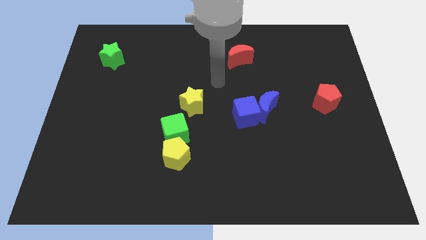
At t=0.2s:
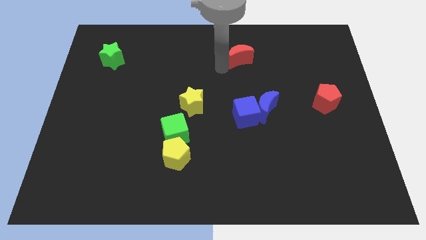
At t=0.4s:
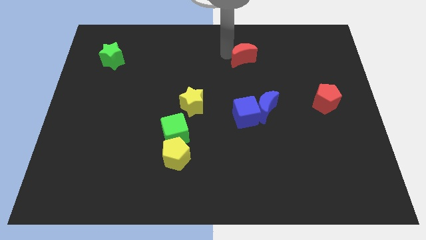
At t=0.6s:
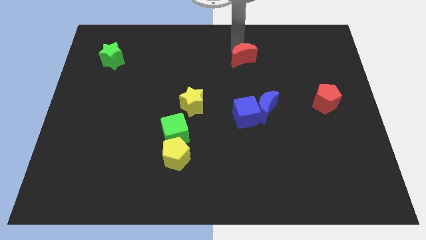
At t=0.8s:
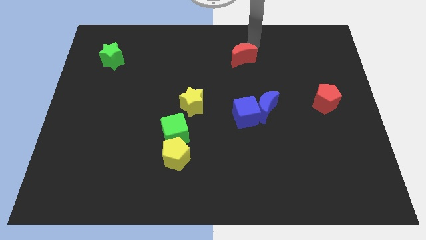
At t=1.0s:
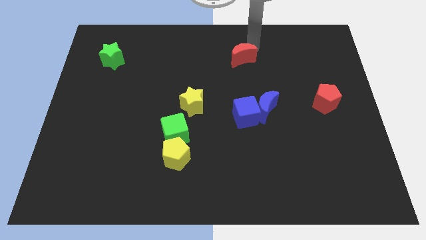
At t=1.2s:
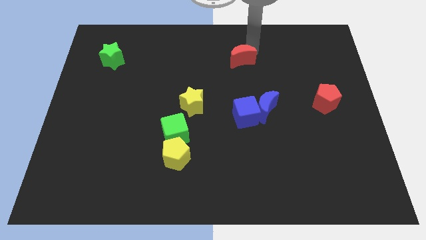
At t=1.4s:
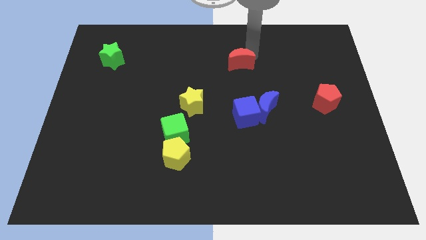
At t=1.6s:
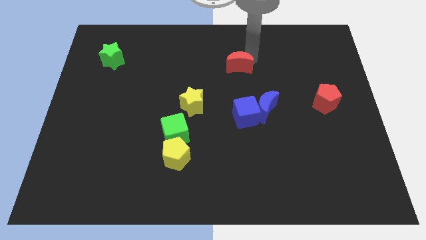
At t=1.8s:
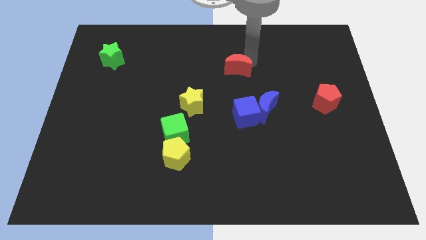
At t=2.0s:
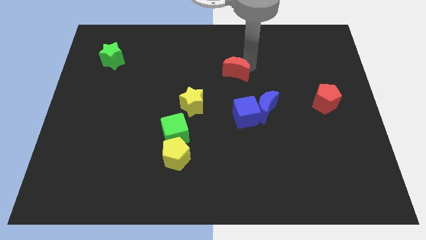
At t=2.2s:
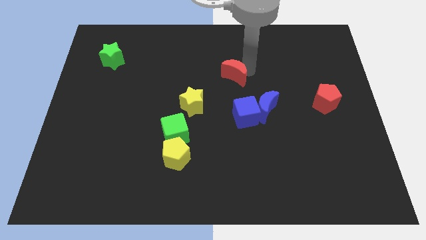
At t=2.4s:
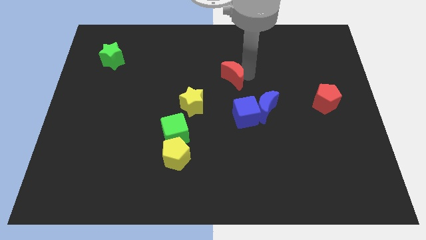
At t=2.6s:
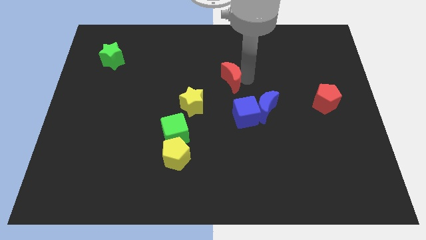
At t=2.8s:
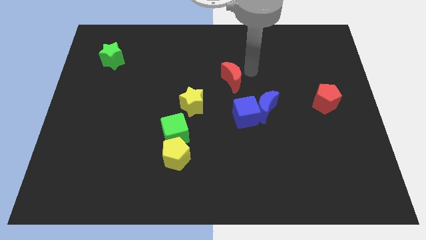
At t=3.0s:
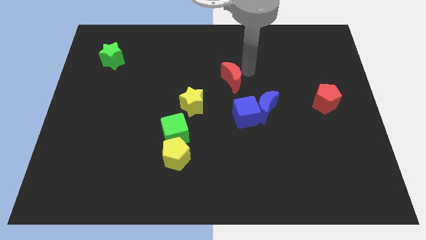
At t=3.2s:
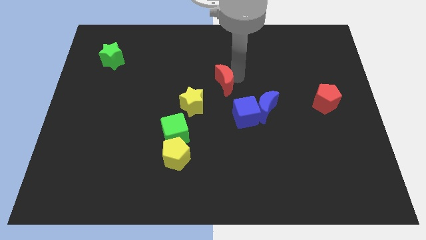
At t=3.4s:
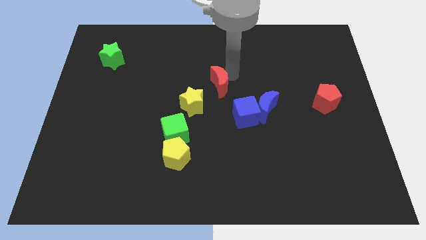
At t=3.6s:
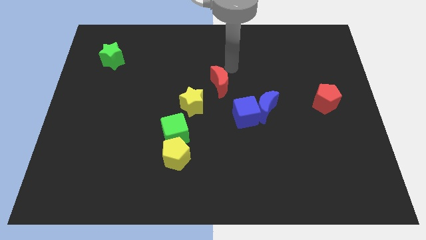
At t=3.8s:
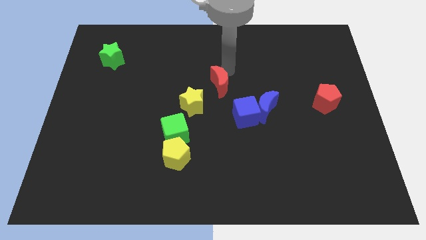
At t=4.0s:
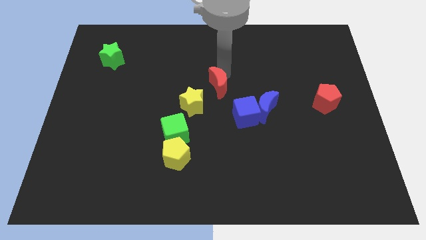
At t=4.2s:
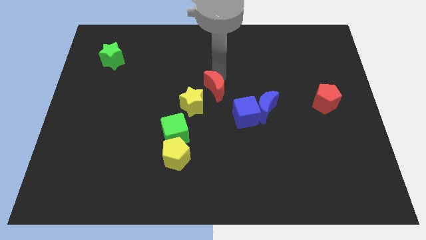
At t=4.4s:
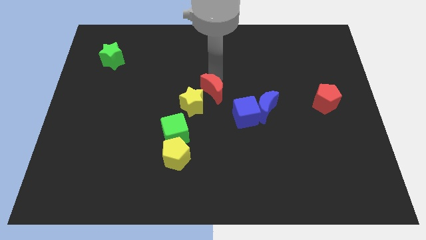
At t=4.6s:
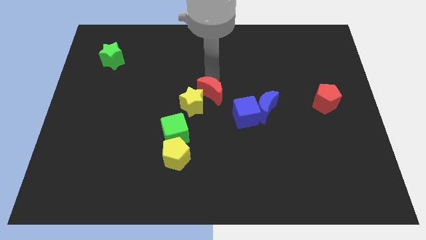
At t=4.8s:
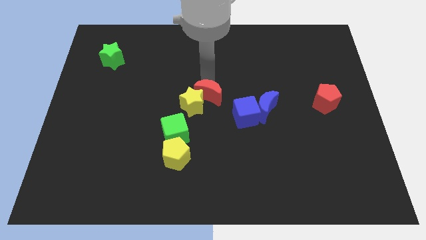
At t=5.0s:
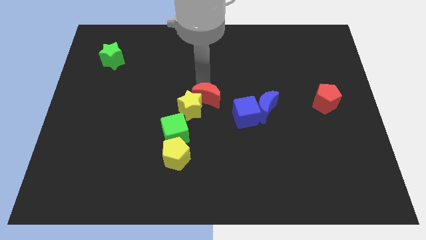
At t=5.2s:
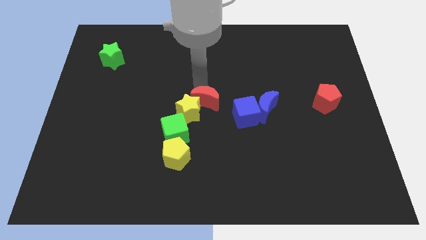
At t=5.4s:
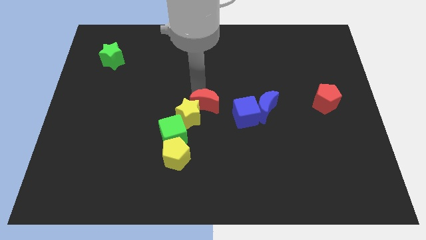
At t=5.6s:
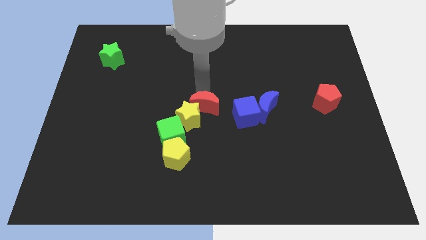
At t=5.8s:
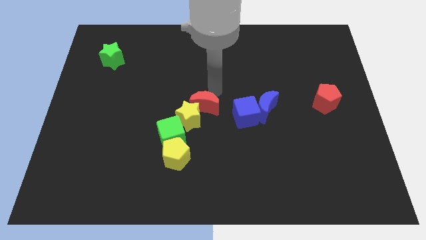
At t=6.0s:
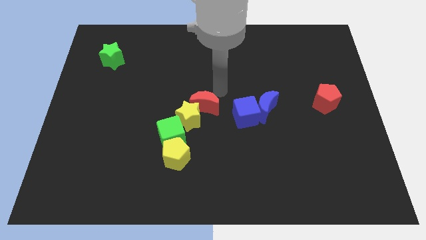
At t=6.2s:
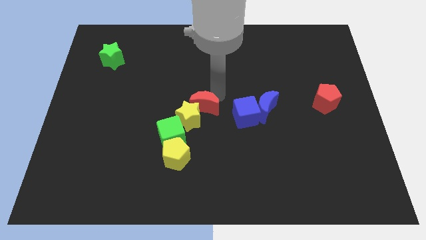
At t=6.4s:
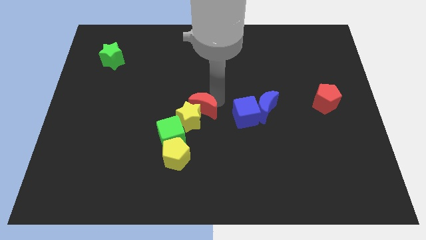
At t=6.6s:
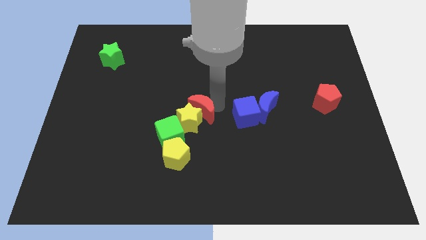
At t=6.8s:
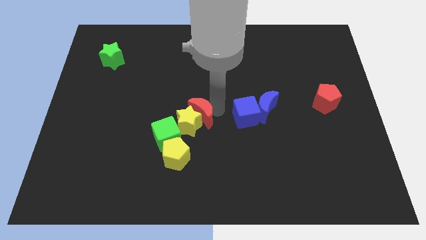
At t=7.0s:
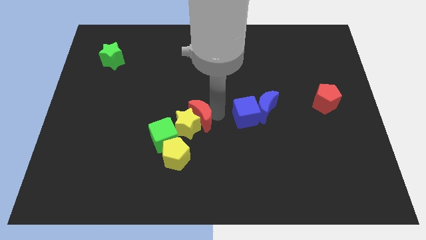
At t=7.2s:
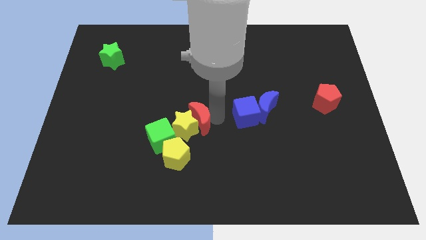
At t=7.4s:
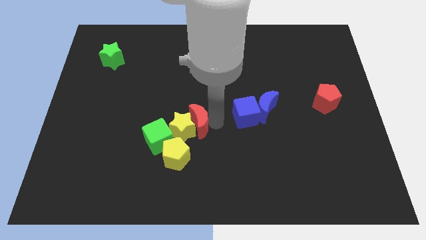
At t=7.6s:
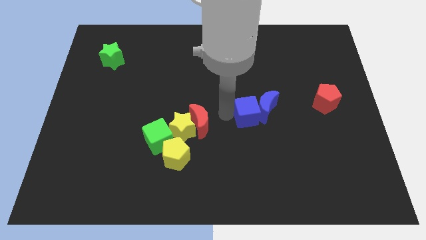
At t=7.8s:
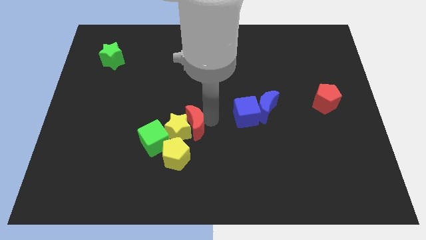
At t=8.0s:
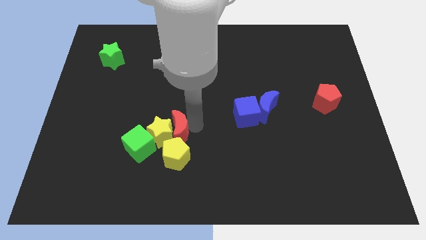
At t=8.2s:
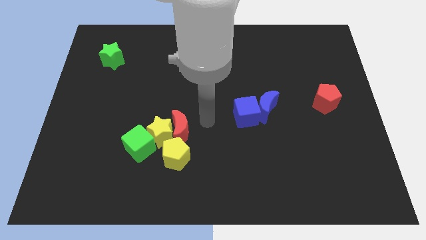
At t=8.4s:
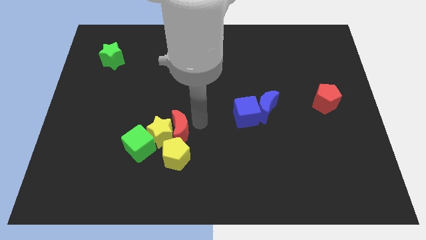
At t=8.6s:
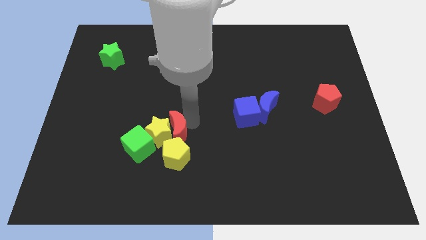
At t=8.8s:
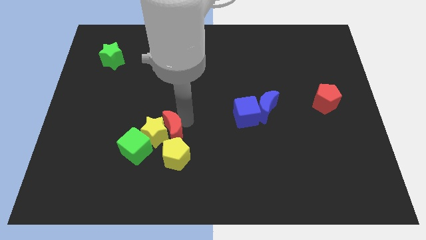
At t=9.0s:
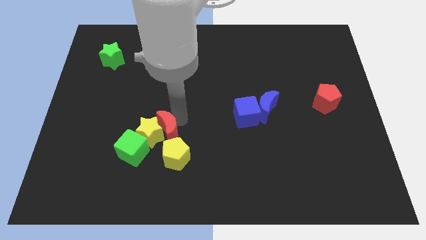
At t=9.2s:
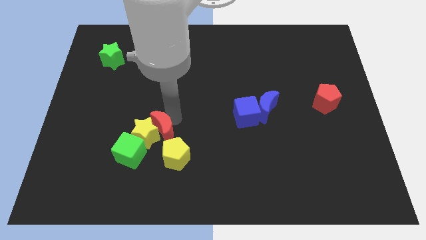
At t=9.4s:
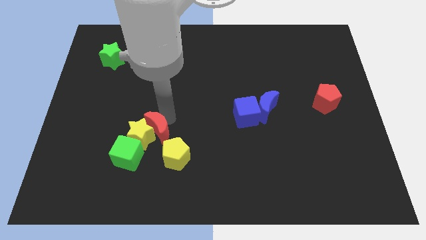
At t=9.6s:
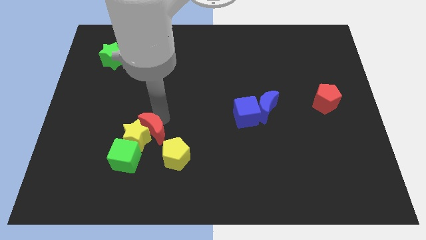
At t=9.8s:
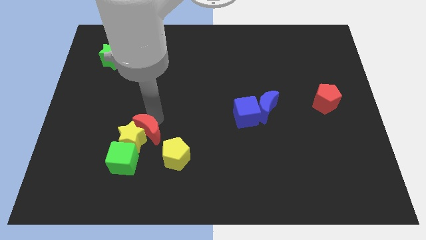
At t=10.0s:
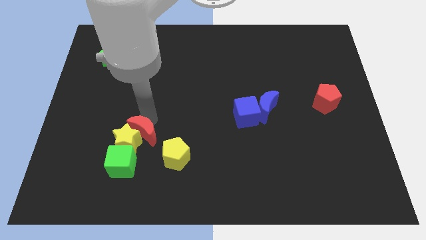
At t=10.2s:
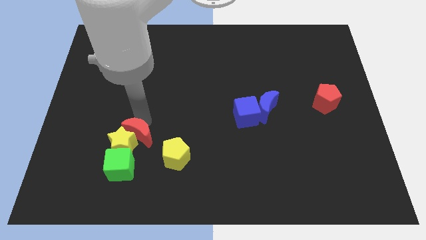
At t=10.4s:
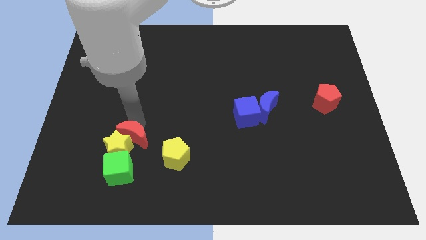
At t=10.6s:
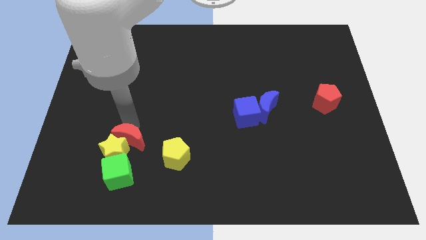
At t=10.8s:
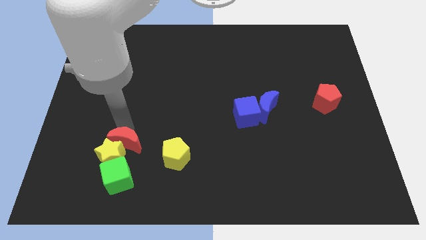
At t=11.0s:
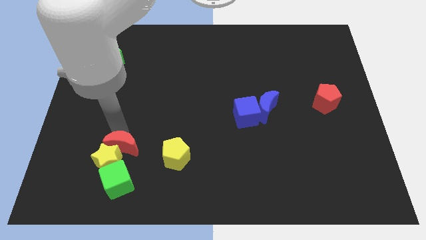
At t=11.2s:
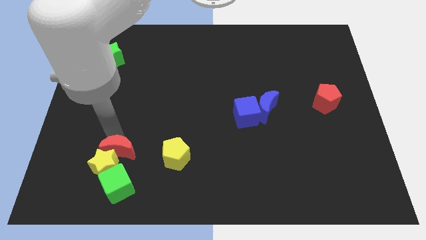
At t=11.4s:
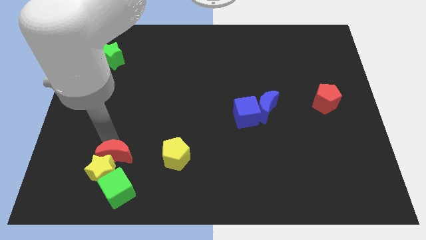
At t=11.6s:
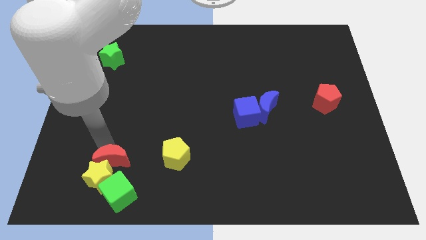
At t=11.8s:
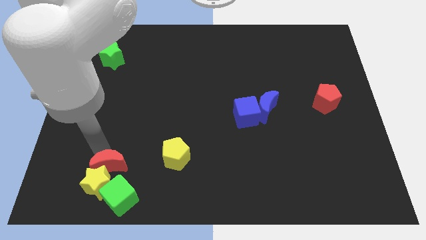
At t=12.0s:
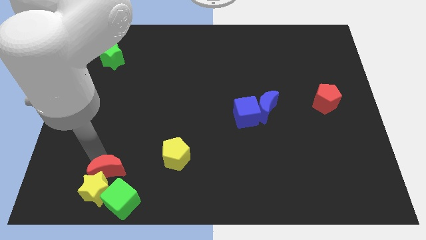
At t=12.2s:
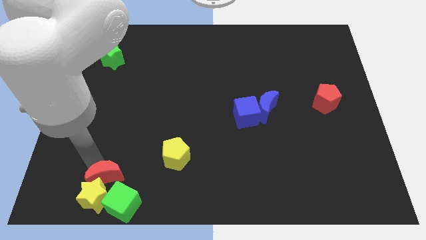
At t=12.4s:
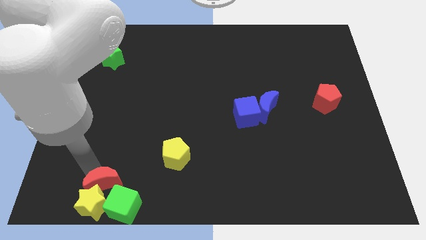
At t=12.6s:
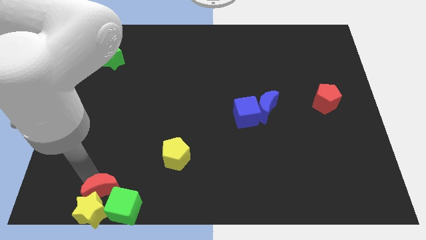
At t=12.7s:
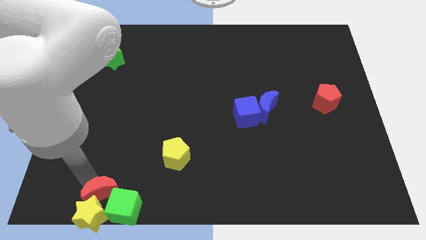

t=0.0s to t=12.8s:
push the red moon next to the green cube

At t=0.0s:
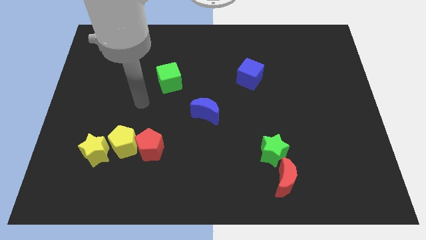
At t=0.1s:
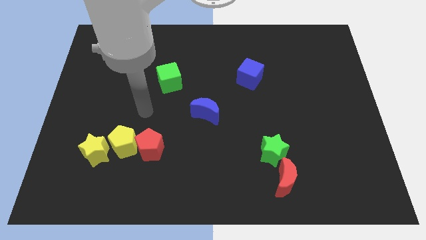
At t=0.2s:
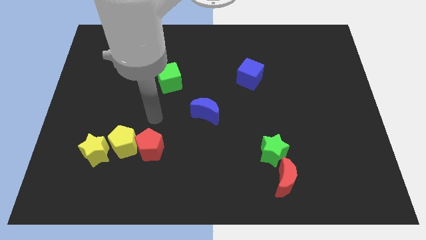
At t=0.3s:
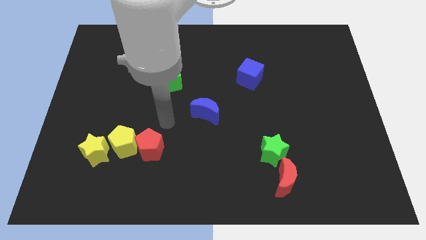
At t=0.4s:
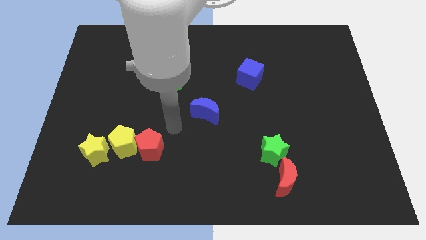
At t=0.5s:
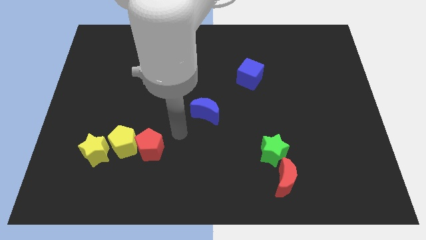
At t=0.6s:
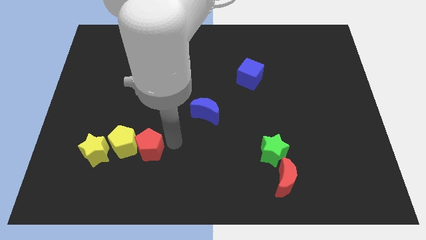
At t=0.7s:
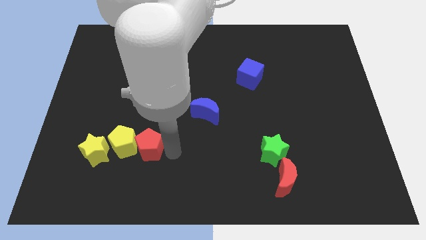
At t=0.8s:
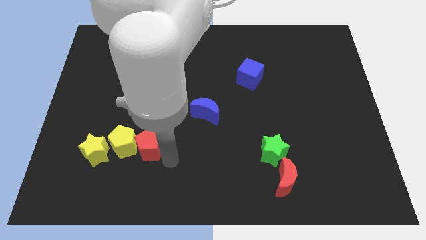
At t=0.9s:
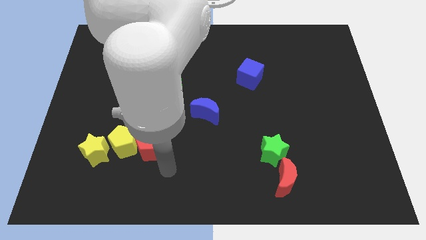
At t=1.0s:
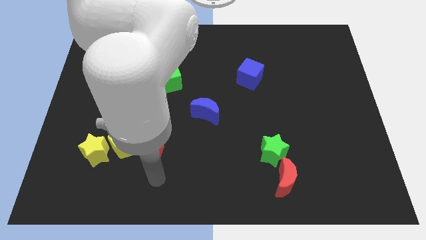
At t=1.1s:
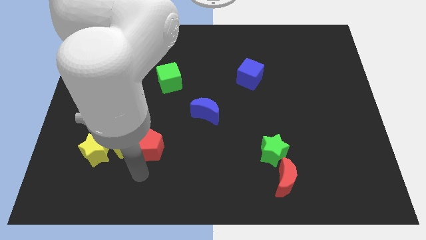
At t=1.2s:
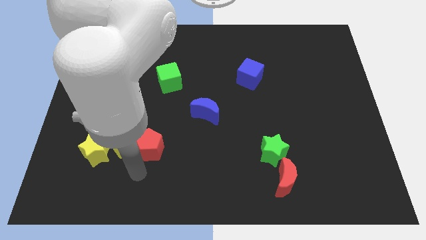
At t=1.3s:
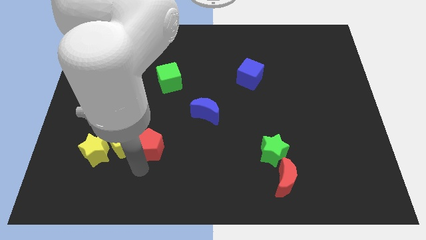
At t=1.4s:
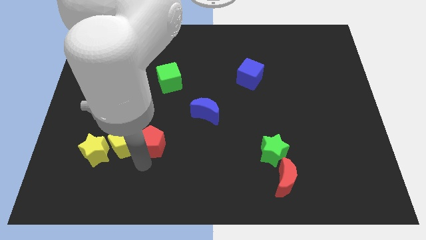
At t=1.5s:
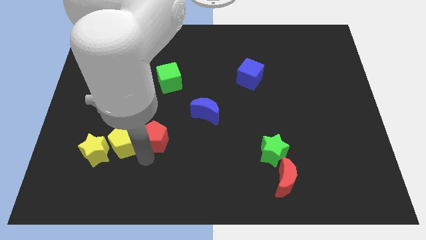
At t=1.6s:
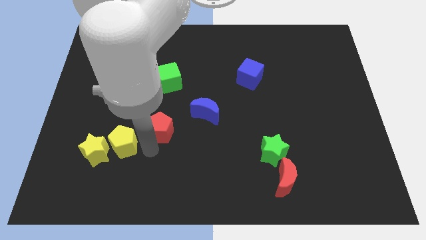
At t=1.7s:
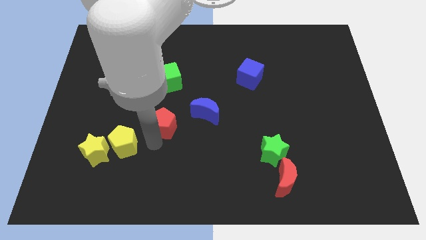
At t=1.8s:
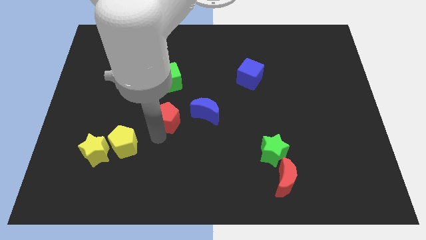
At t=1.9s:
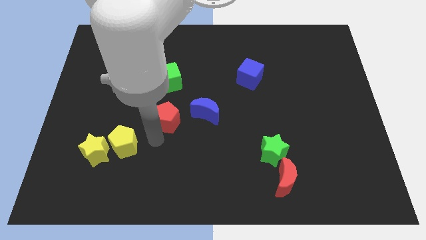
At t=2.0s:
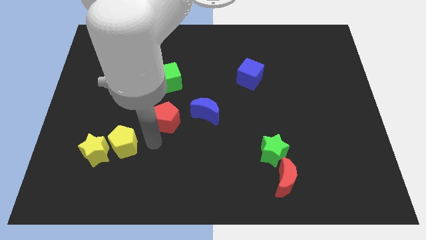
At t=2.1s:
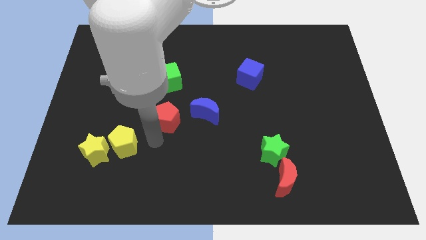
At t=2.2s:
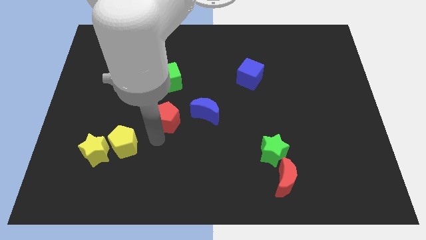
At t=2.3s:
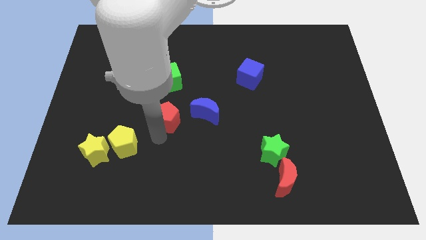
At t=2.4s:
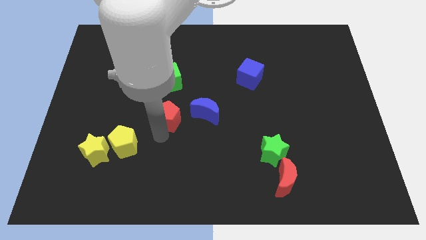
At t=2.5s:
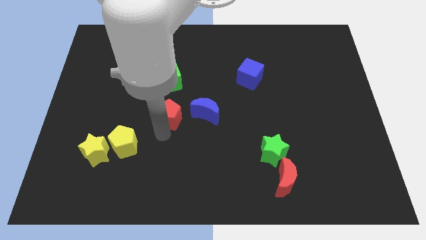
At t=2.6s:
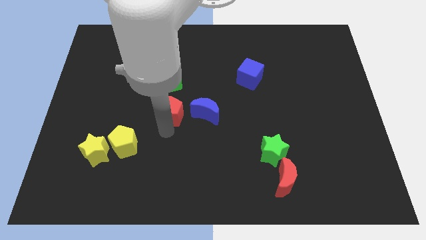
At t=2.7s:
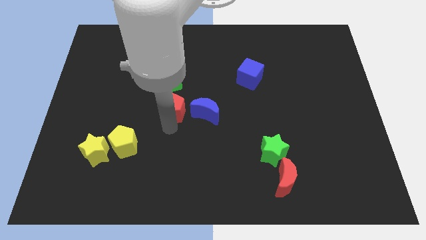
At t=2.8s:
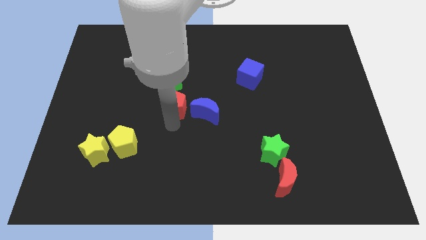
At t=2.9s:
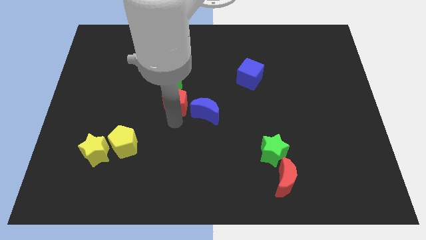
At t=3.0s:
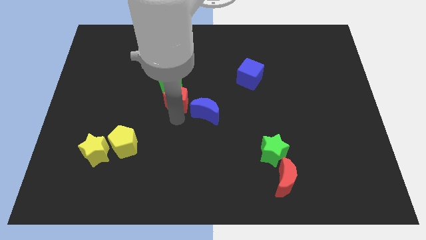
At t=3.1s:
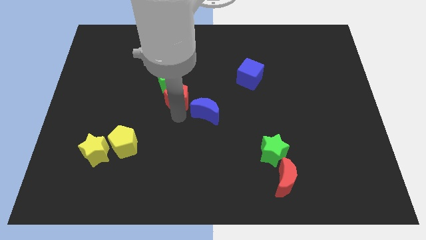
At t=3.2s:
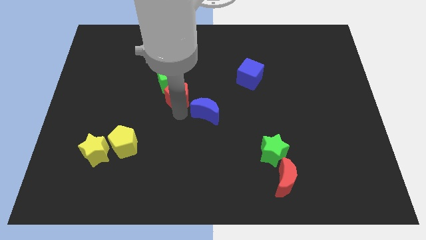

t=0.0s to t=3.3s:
push the red pentagon next to the green cube
